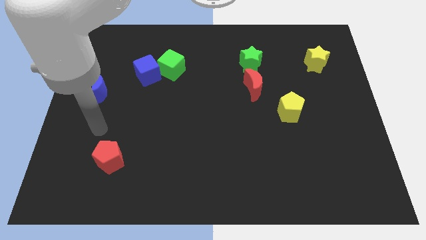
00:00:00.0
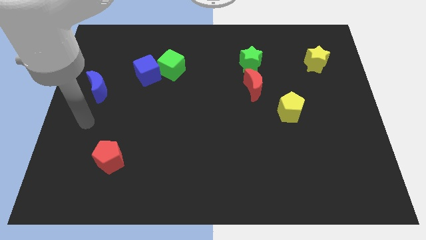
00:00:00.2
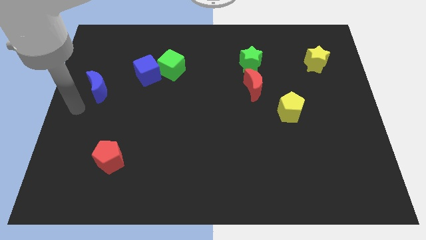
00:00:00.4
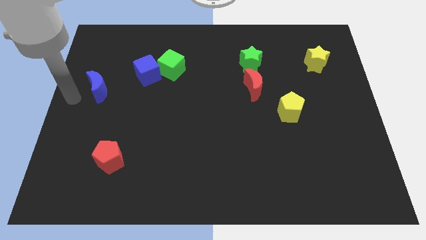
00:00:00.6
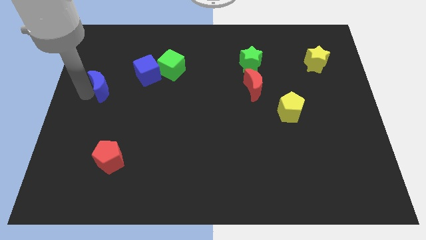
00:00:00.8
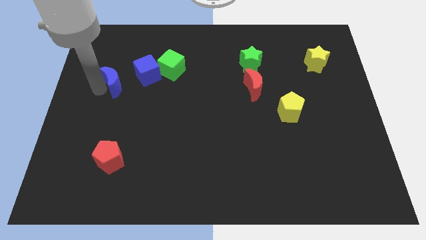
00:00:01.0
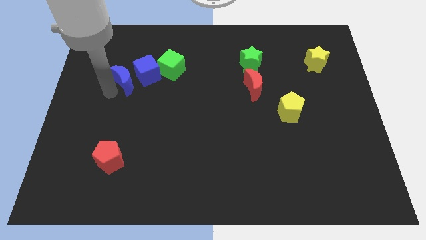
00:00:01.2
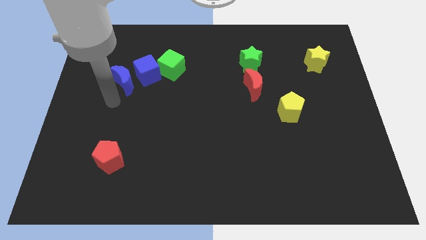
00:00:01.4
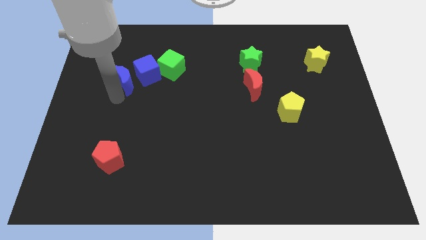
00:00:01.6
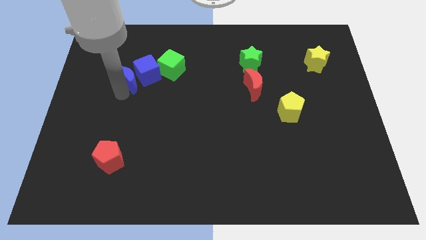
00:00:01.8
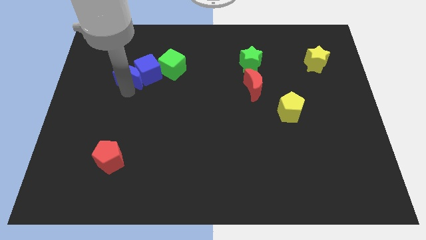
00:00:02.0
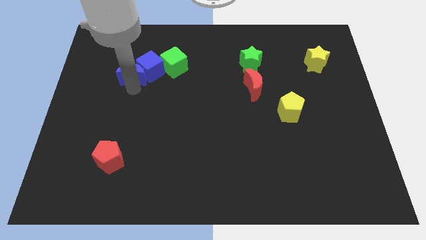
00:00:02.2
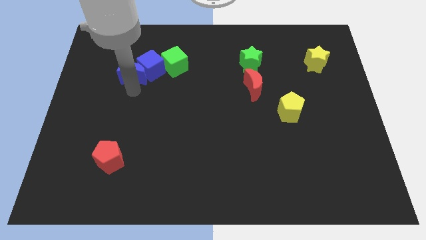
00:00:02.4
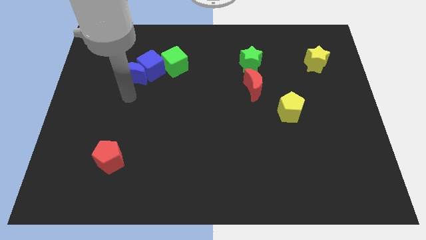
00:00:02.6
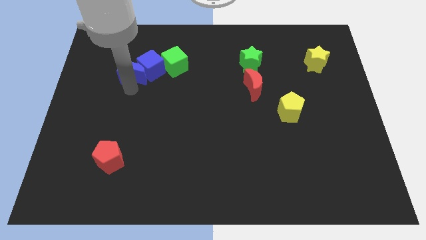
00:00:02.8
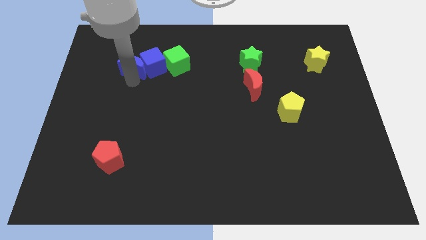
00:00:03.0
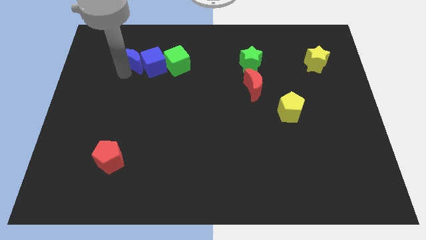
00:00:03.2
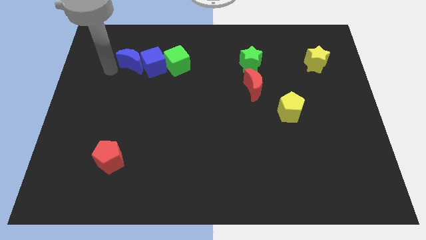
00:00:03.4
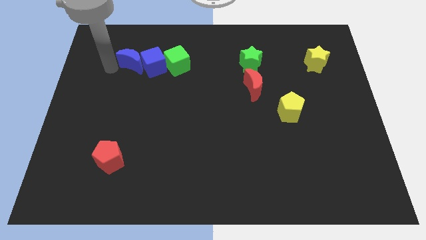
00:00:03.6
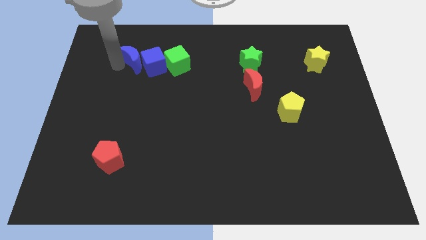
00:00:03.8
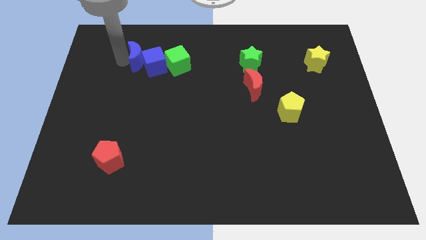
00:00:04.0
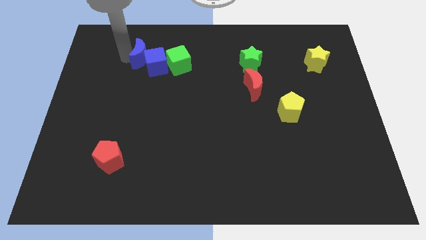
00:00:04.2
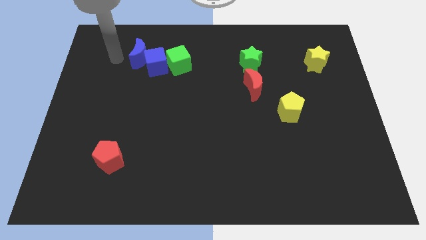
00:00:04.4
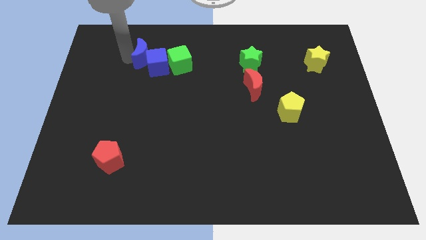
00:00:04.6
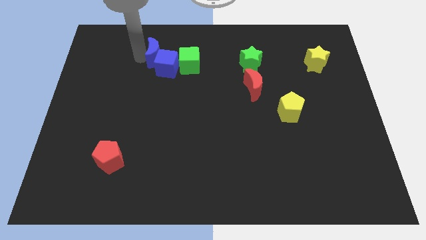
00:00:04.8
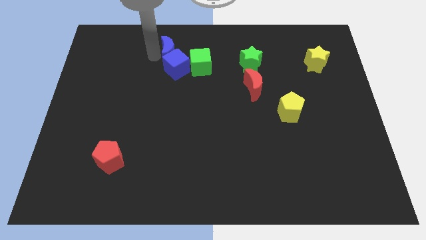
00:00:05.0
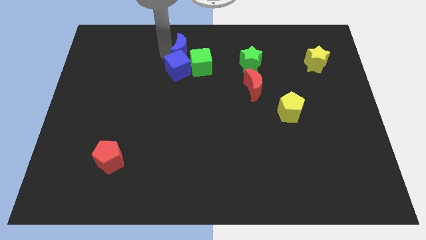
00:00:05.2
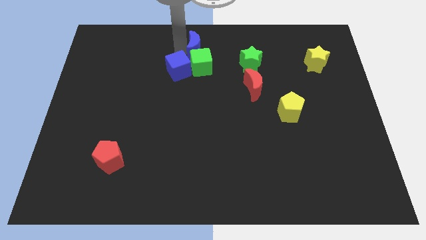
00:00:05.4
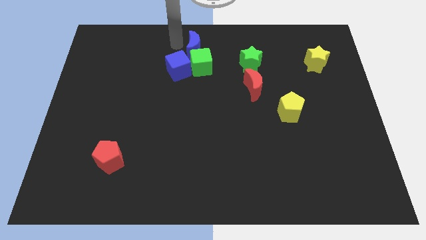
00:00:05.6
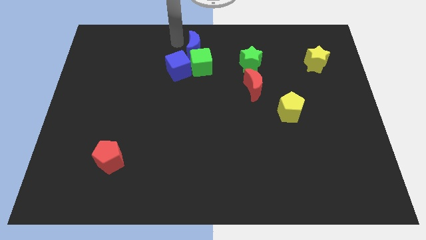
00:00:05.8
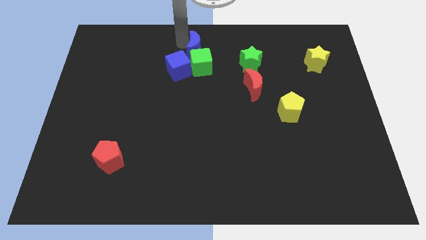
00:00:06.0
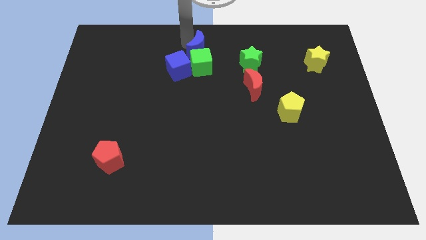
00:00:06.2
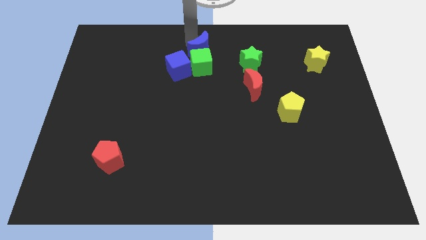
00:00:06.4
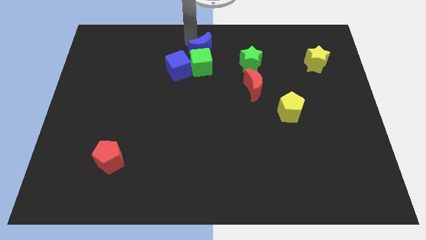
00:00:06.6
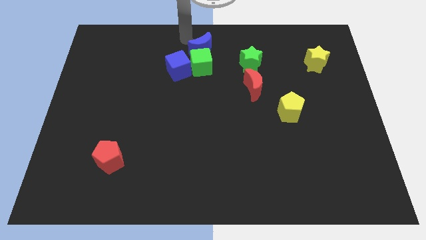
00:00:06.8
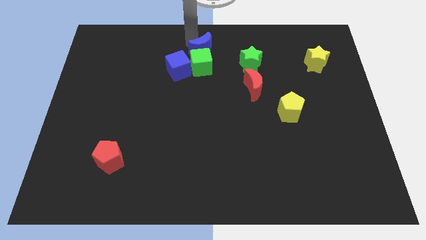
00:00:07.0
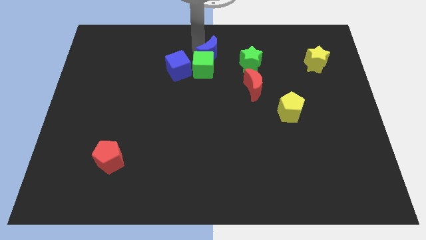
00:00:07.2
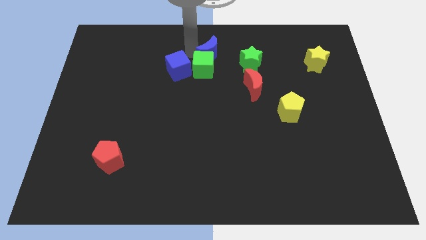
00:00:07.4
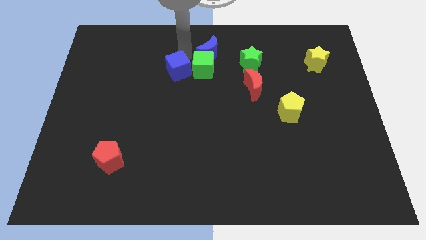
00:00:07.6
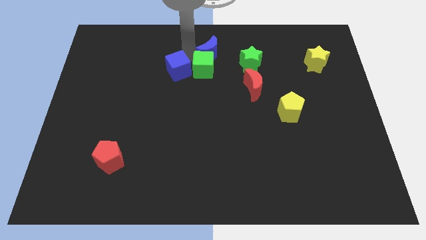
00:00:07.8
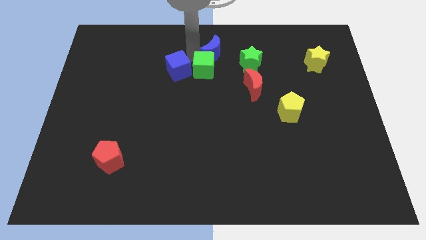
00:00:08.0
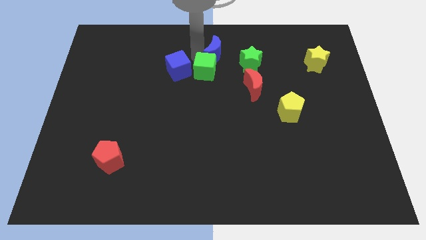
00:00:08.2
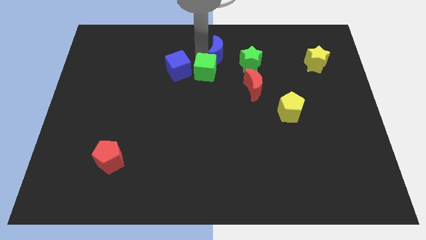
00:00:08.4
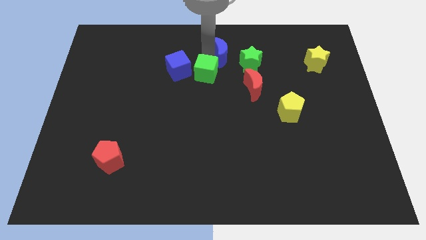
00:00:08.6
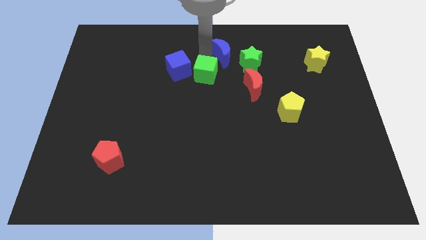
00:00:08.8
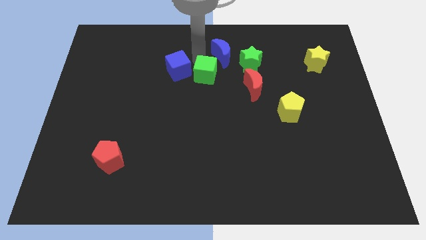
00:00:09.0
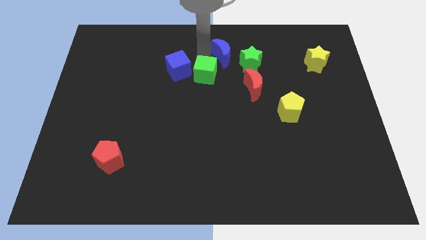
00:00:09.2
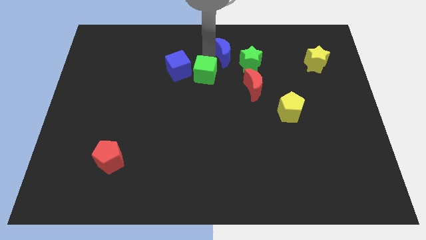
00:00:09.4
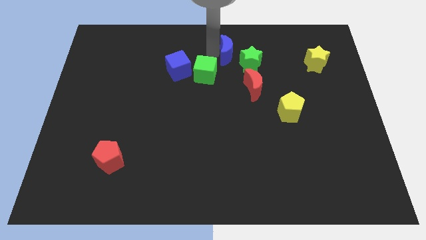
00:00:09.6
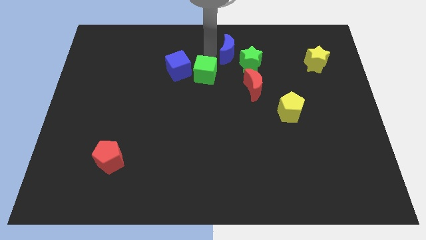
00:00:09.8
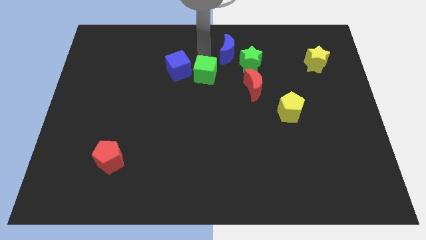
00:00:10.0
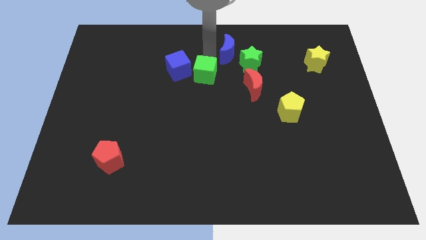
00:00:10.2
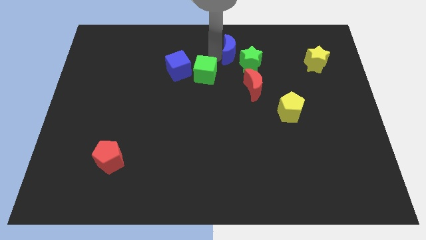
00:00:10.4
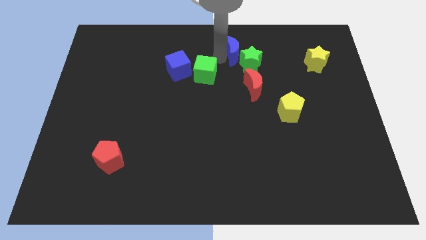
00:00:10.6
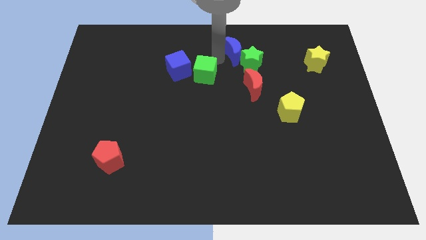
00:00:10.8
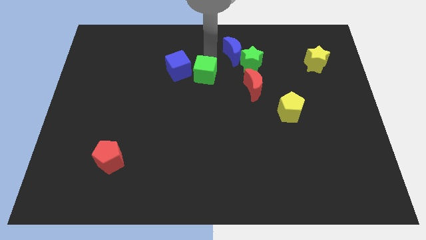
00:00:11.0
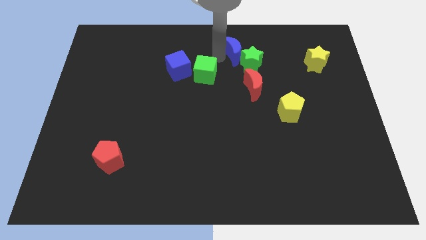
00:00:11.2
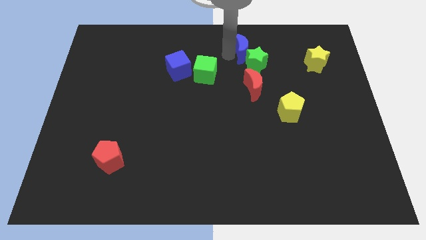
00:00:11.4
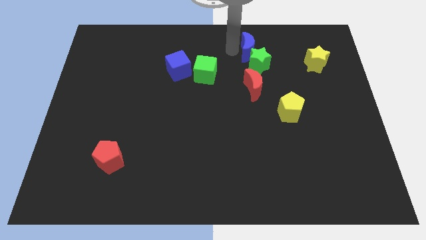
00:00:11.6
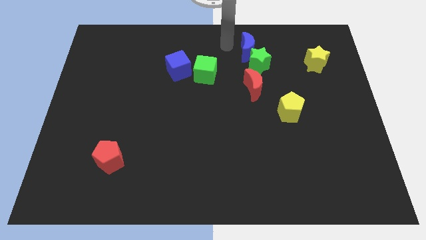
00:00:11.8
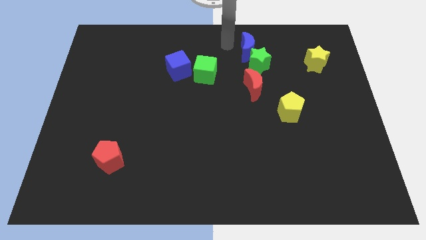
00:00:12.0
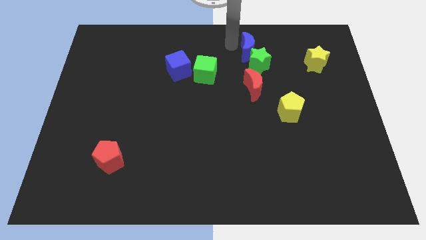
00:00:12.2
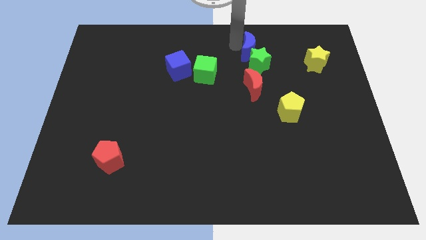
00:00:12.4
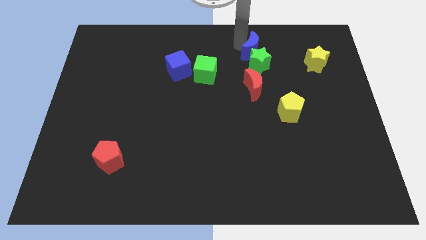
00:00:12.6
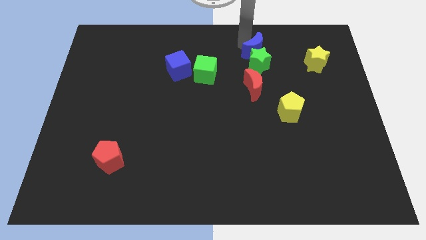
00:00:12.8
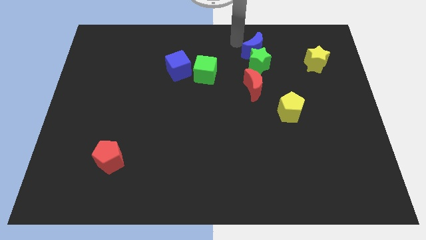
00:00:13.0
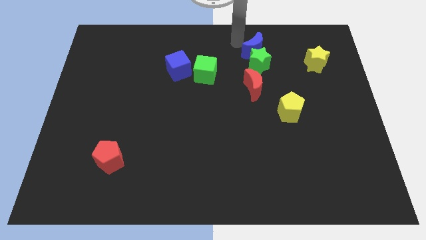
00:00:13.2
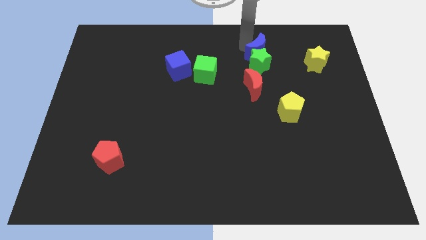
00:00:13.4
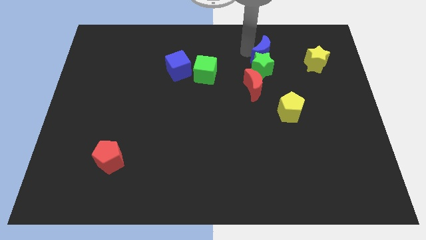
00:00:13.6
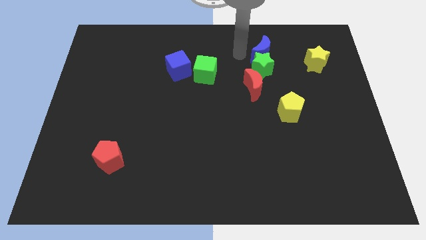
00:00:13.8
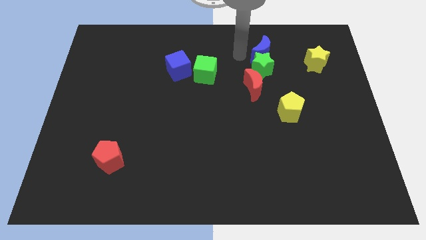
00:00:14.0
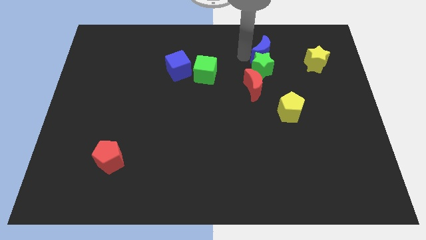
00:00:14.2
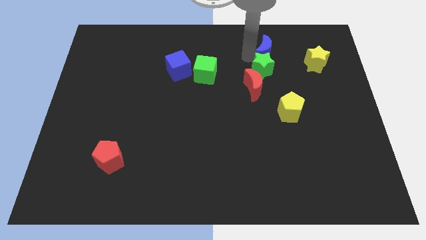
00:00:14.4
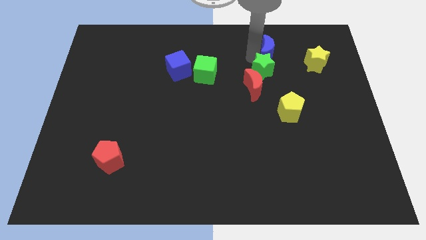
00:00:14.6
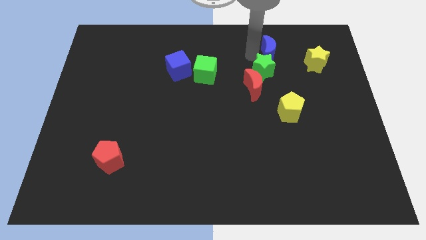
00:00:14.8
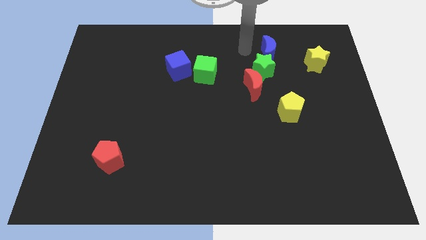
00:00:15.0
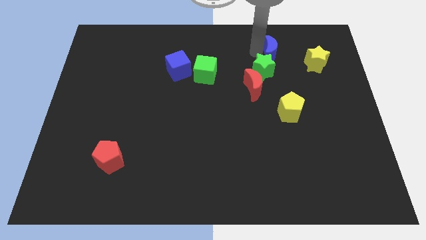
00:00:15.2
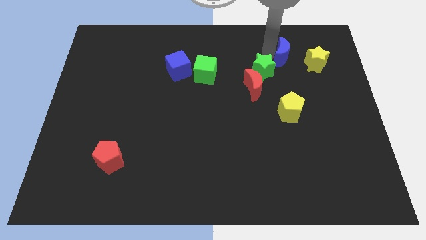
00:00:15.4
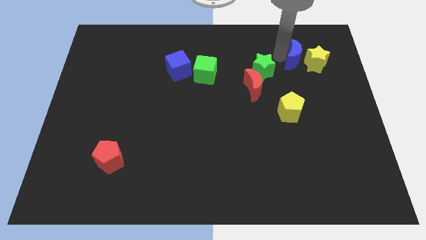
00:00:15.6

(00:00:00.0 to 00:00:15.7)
put the blue moon next to the yellow star
